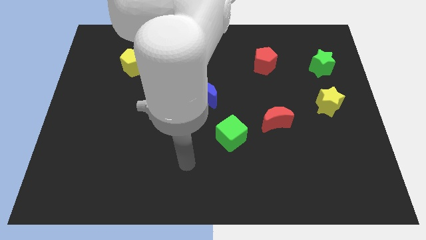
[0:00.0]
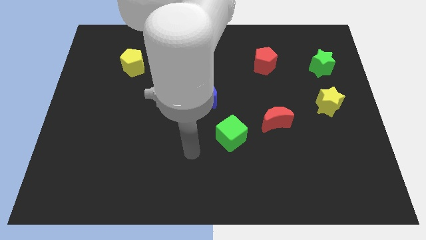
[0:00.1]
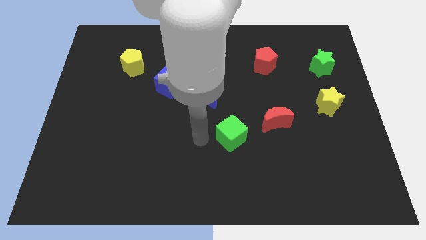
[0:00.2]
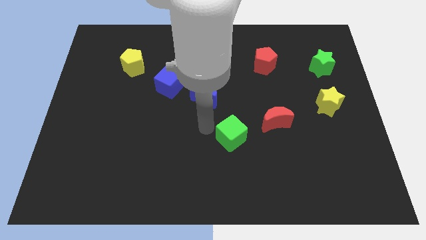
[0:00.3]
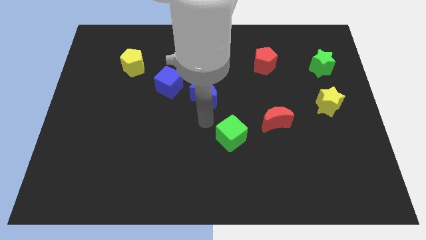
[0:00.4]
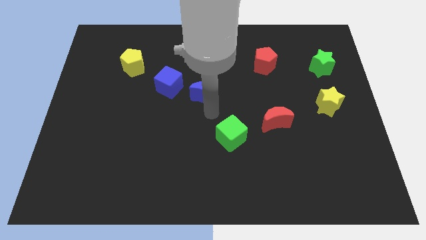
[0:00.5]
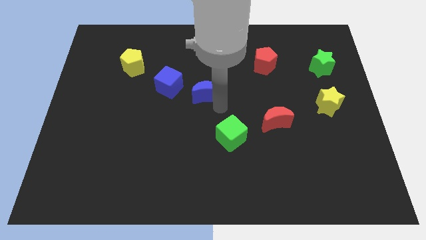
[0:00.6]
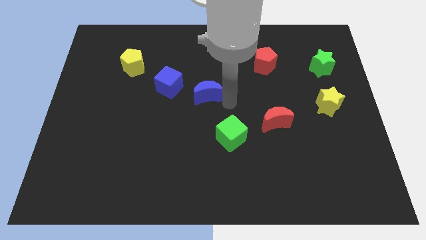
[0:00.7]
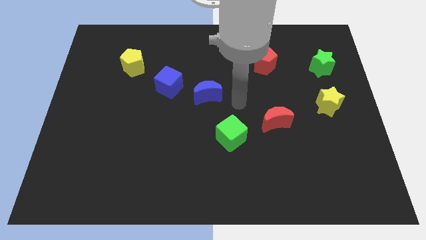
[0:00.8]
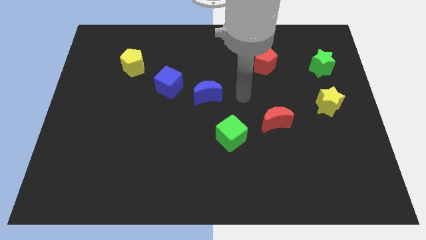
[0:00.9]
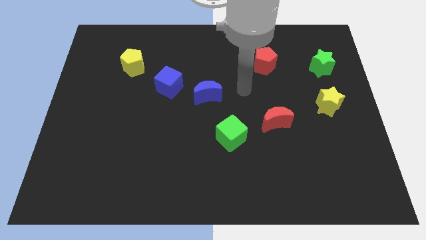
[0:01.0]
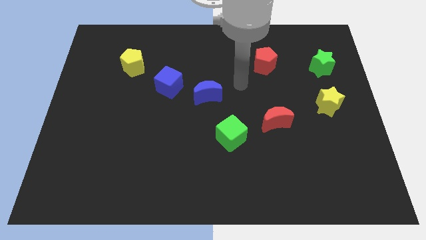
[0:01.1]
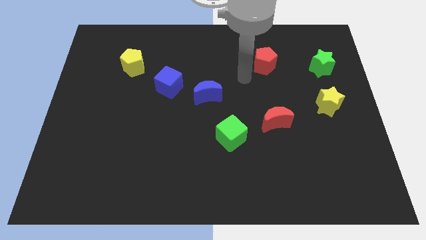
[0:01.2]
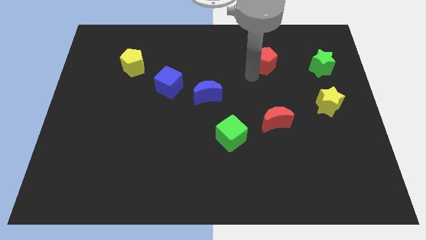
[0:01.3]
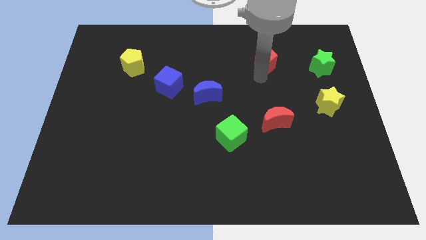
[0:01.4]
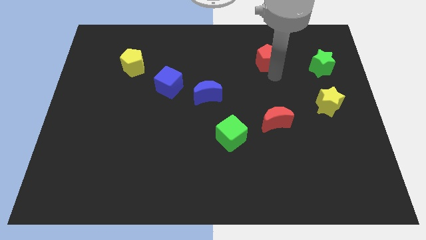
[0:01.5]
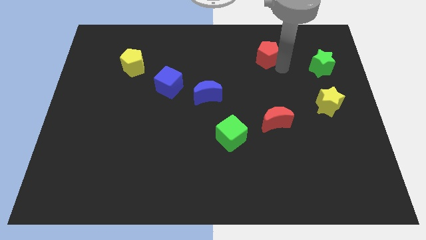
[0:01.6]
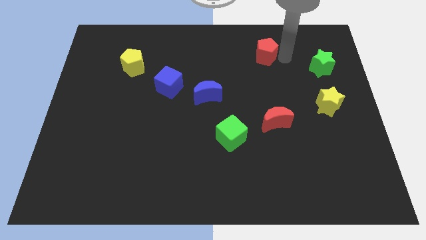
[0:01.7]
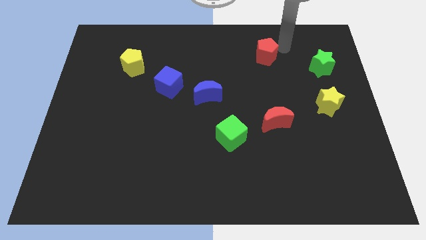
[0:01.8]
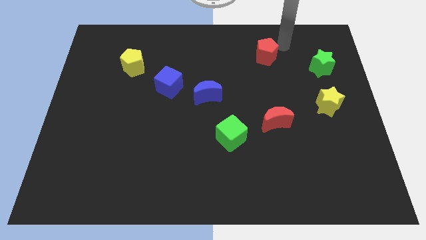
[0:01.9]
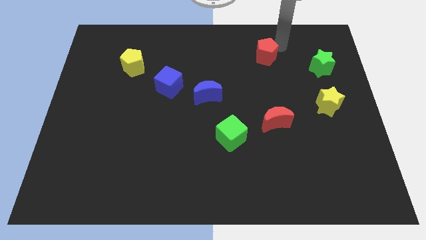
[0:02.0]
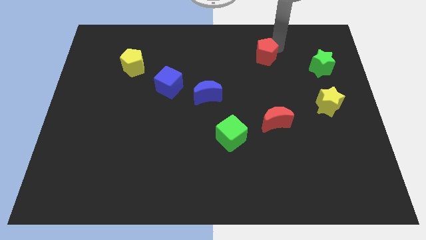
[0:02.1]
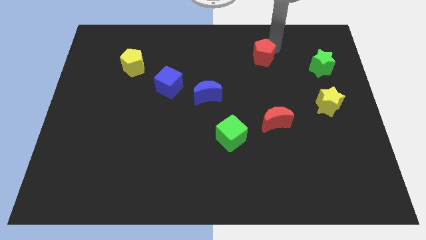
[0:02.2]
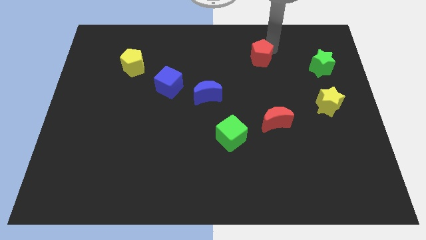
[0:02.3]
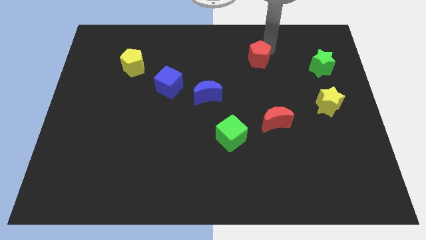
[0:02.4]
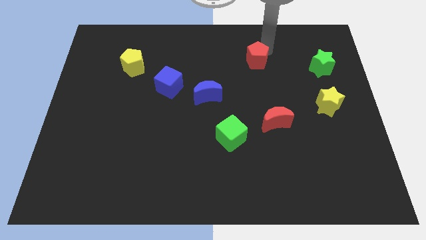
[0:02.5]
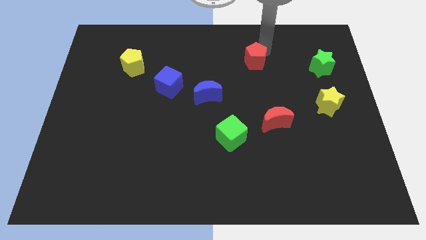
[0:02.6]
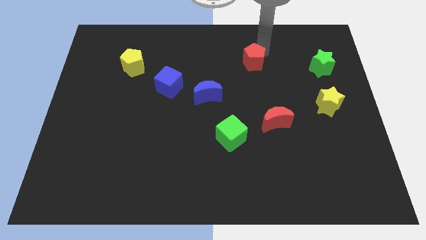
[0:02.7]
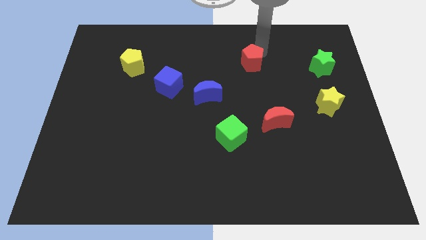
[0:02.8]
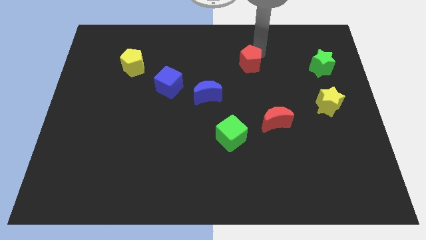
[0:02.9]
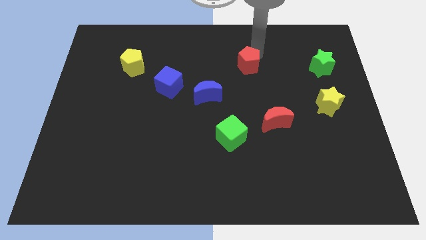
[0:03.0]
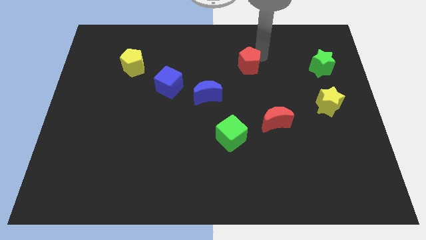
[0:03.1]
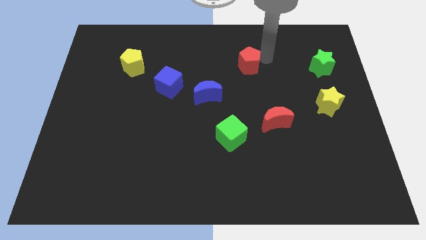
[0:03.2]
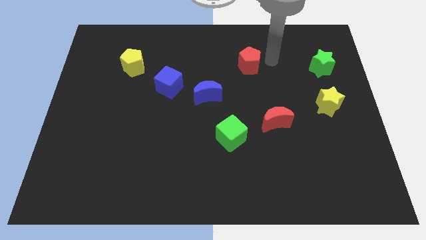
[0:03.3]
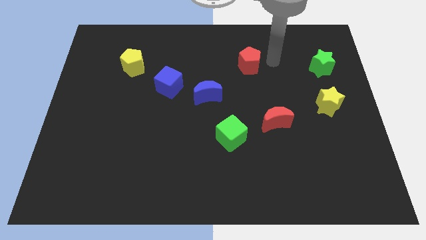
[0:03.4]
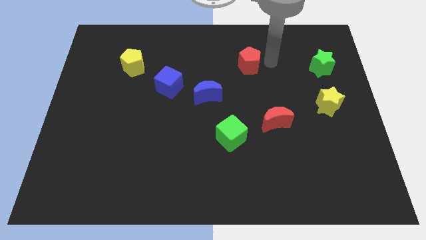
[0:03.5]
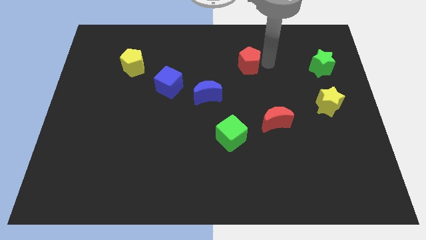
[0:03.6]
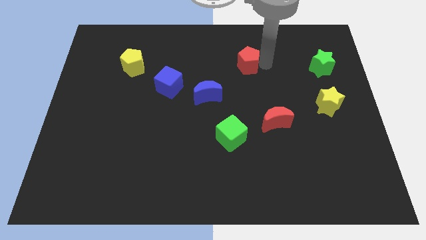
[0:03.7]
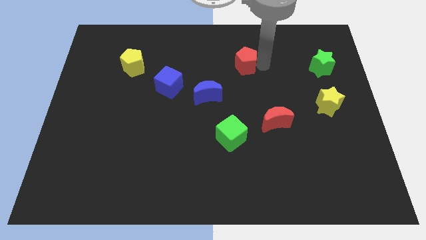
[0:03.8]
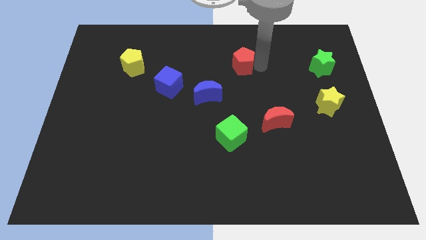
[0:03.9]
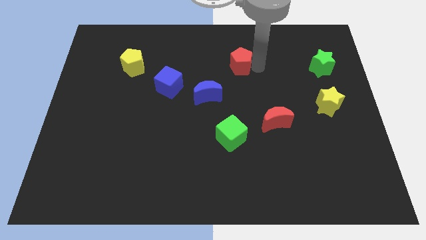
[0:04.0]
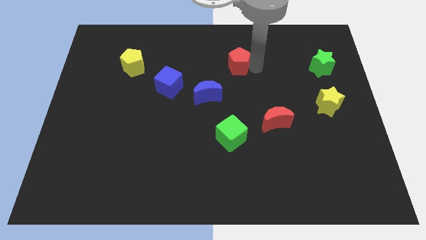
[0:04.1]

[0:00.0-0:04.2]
push the red pentagon left somewhat

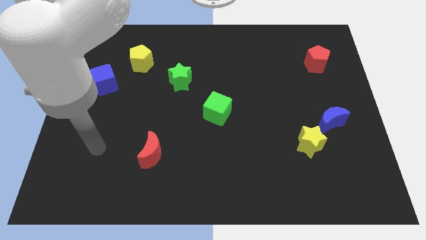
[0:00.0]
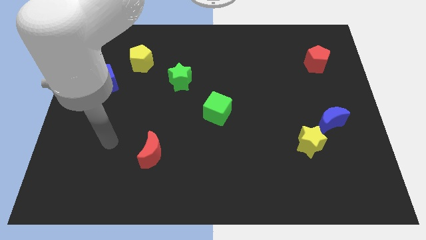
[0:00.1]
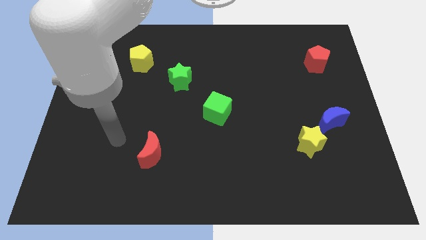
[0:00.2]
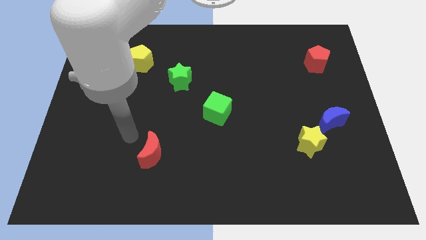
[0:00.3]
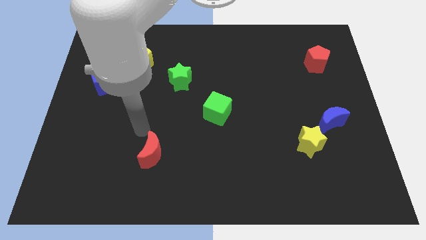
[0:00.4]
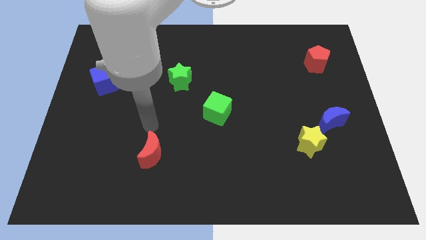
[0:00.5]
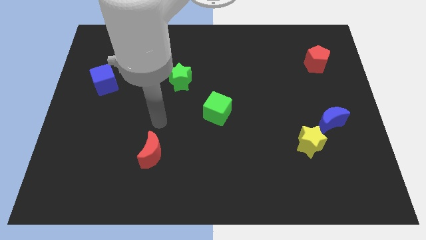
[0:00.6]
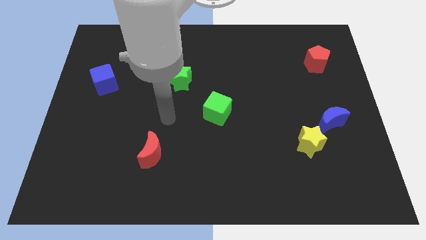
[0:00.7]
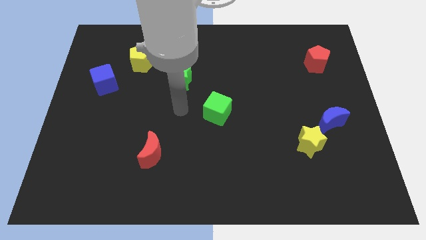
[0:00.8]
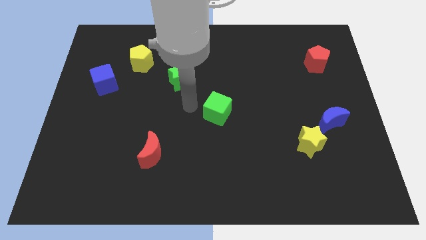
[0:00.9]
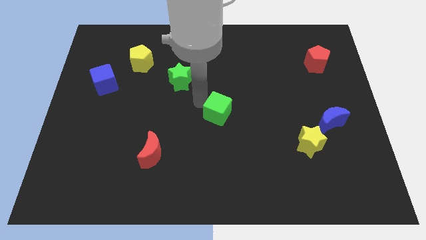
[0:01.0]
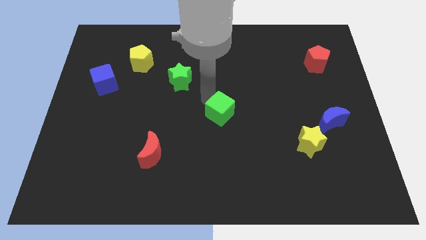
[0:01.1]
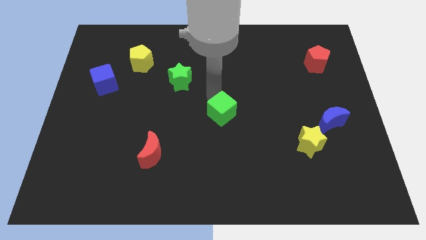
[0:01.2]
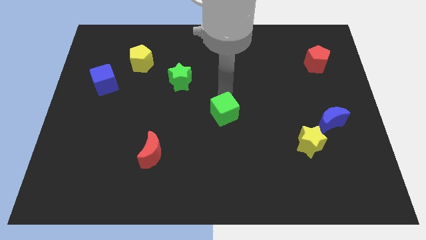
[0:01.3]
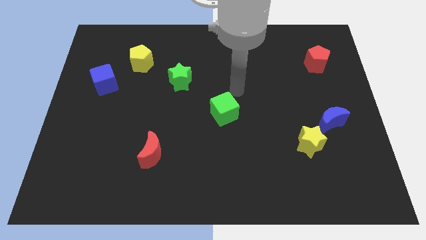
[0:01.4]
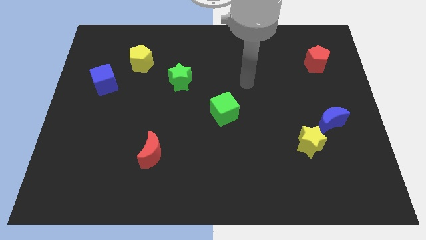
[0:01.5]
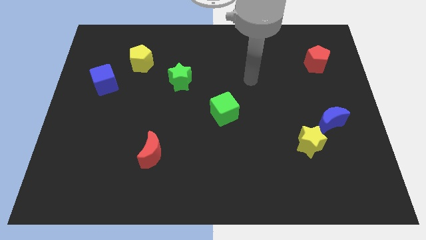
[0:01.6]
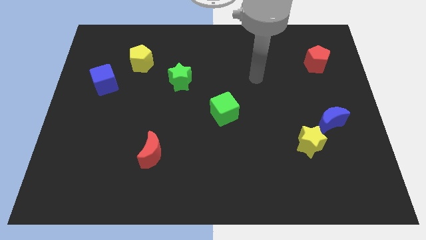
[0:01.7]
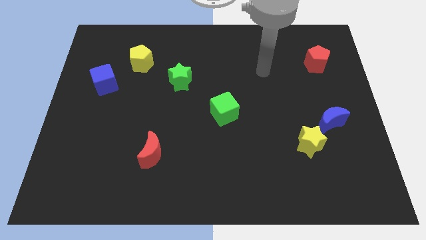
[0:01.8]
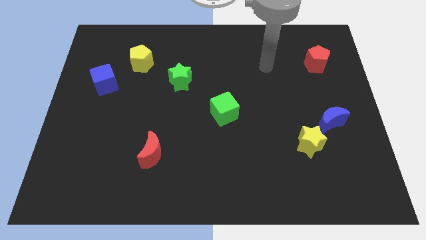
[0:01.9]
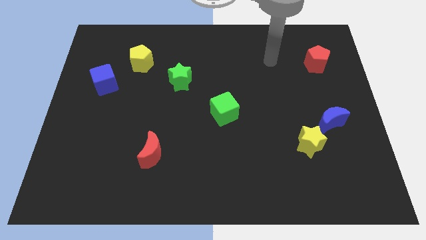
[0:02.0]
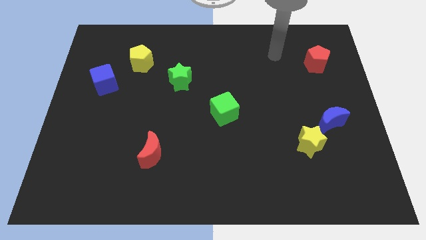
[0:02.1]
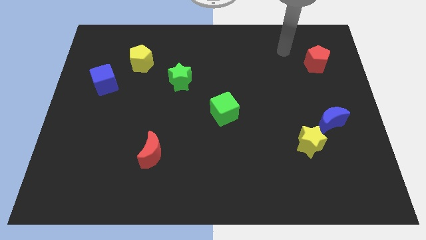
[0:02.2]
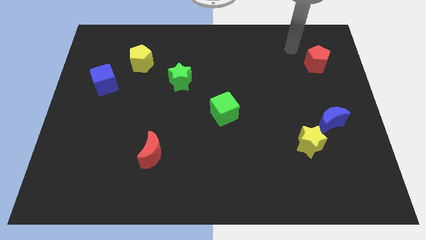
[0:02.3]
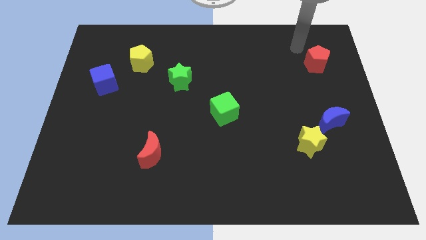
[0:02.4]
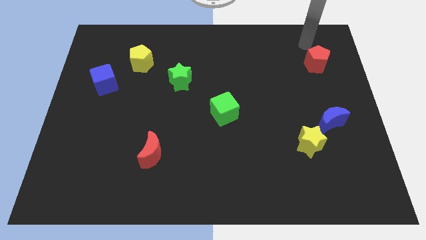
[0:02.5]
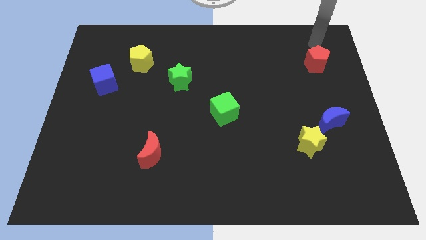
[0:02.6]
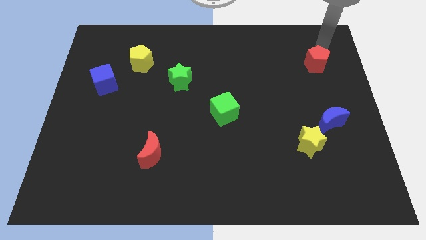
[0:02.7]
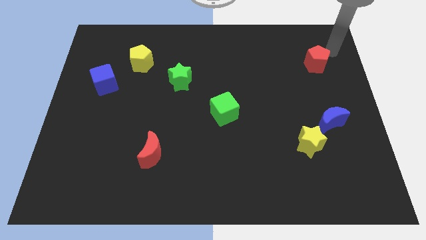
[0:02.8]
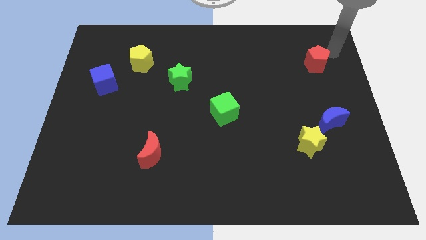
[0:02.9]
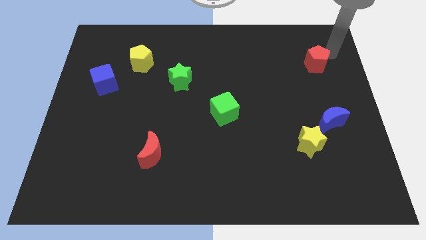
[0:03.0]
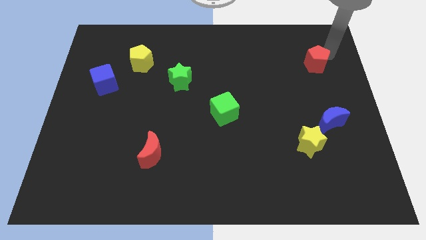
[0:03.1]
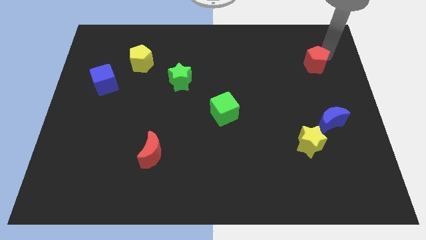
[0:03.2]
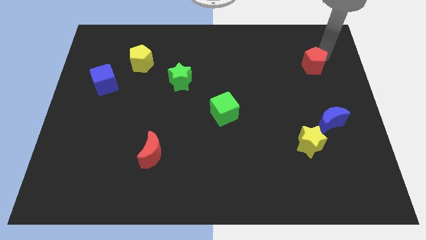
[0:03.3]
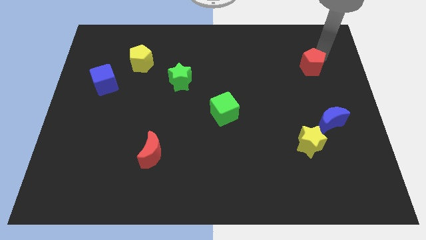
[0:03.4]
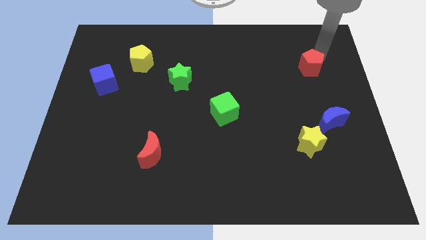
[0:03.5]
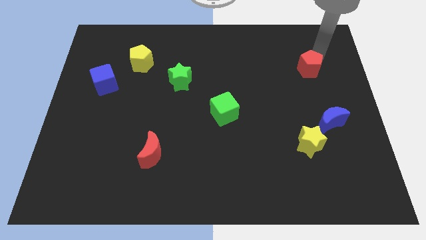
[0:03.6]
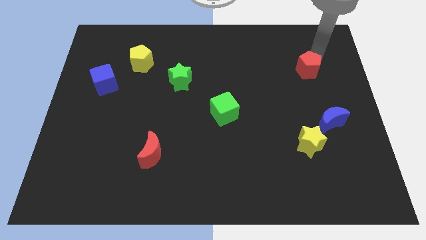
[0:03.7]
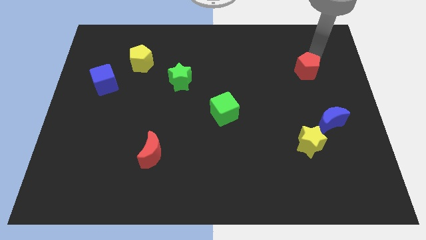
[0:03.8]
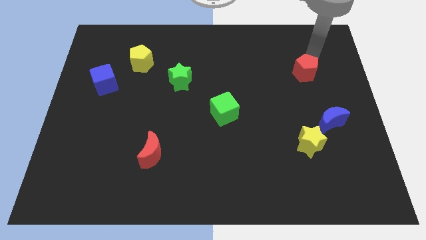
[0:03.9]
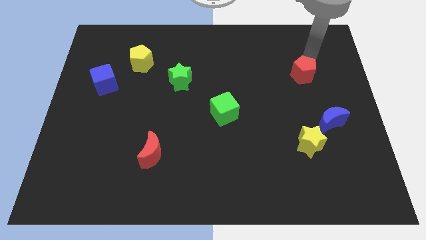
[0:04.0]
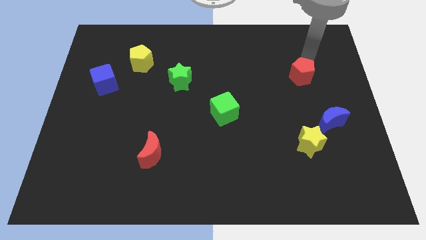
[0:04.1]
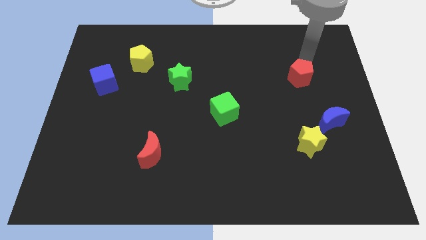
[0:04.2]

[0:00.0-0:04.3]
slide the red pentagon down and to the left diagonally a little bit
